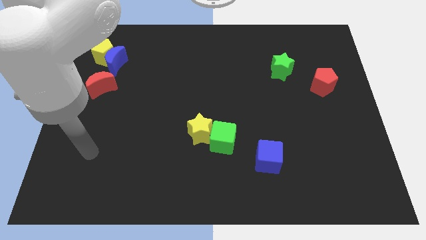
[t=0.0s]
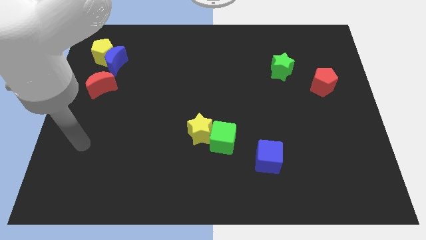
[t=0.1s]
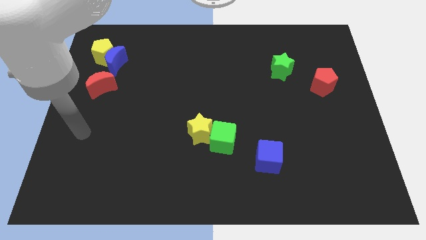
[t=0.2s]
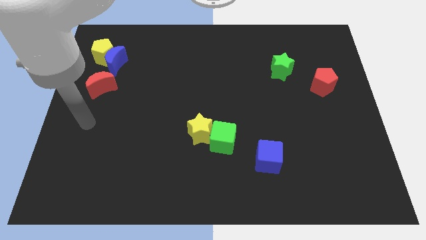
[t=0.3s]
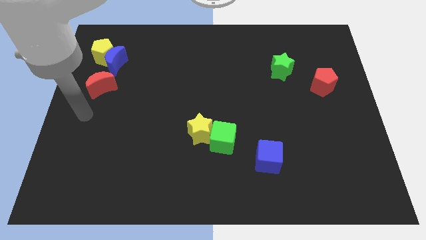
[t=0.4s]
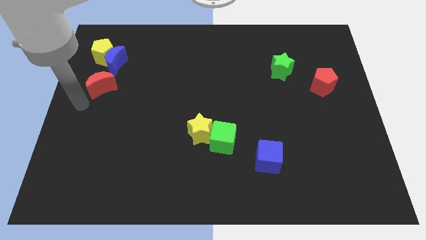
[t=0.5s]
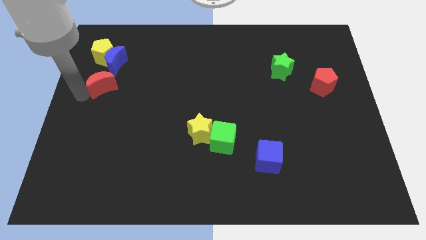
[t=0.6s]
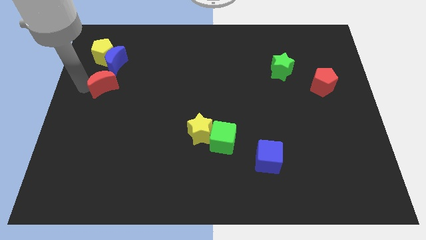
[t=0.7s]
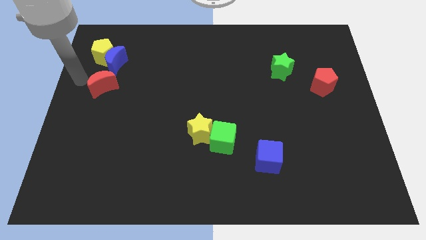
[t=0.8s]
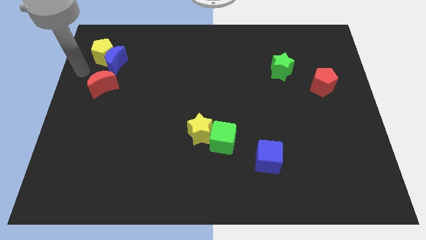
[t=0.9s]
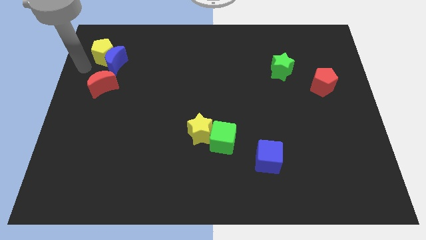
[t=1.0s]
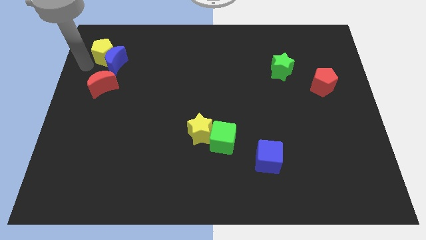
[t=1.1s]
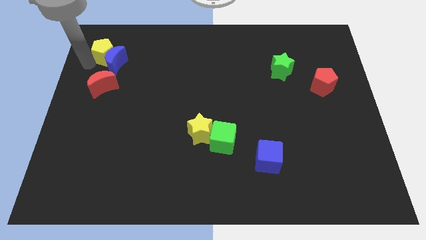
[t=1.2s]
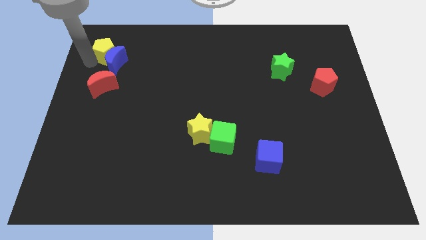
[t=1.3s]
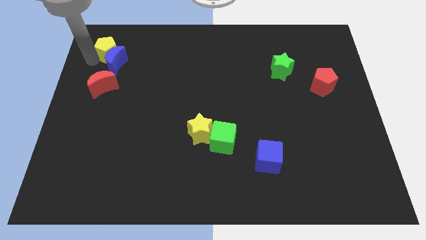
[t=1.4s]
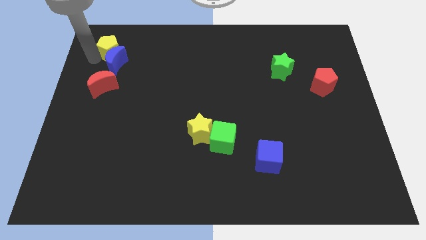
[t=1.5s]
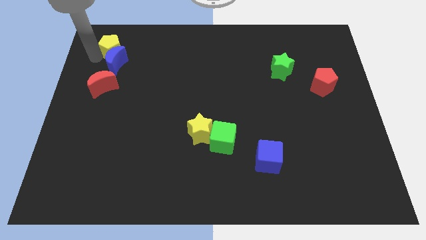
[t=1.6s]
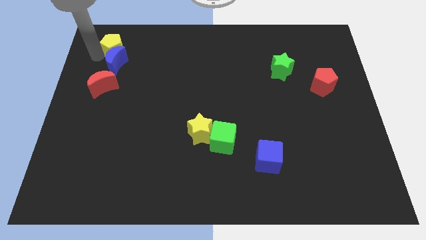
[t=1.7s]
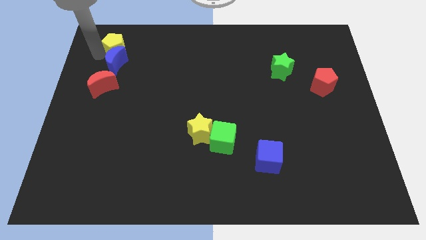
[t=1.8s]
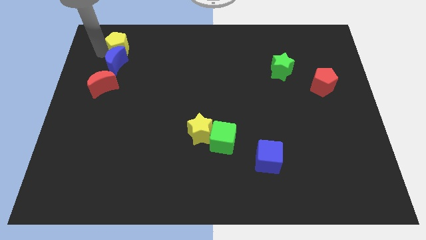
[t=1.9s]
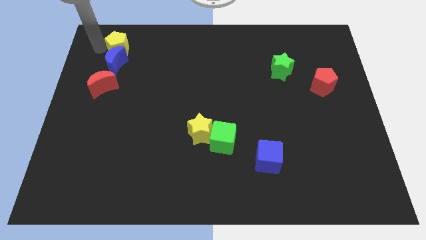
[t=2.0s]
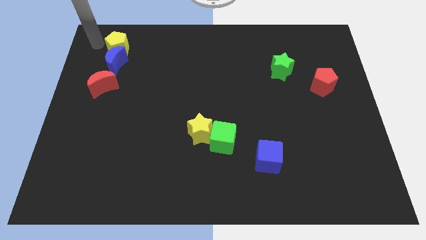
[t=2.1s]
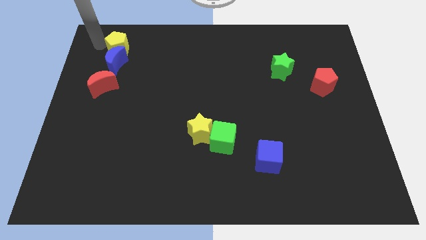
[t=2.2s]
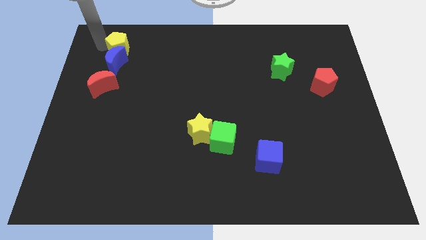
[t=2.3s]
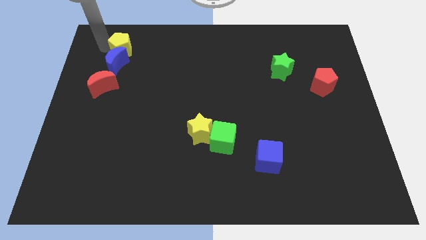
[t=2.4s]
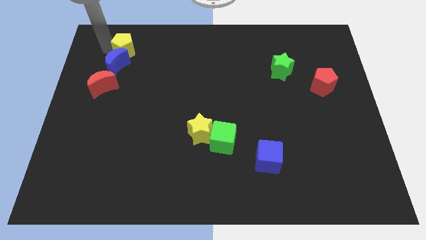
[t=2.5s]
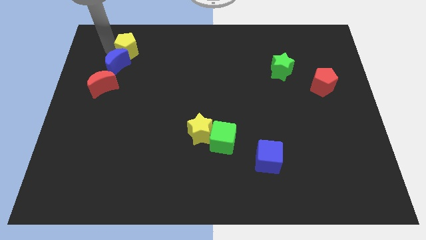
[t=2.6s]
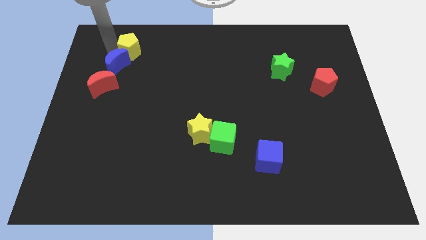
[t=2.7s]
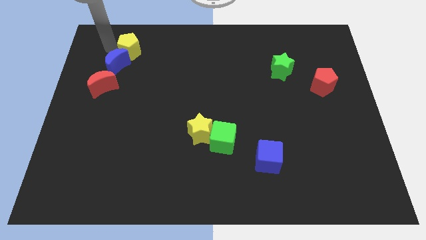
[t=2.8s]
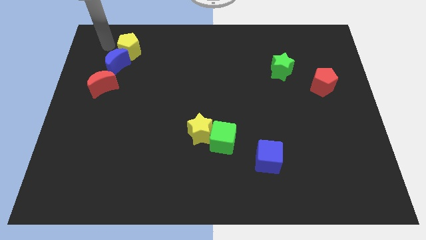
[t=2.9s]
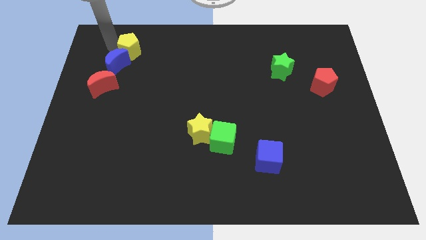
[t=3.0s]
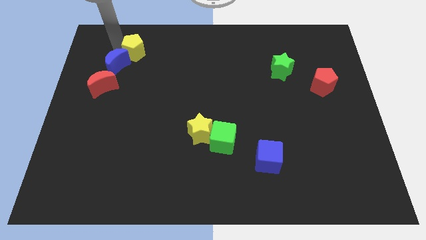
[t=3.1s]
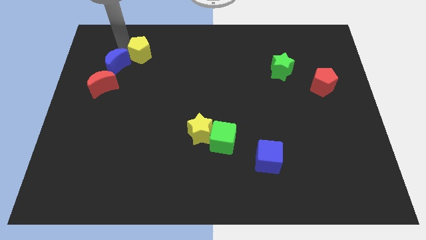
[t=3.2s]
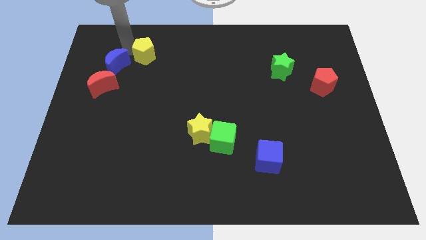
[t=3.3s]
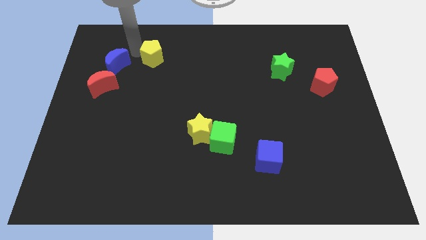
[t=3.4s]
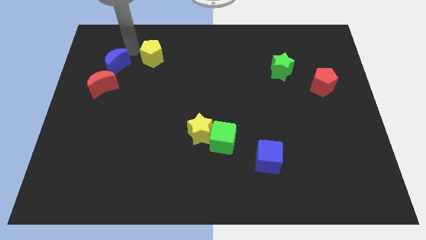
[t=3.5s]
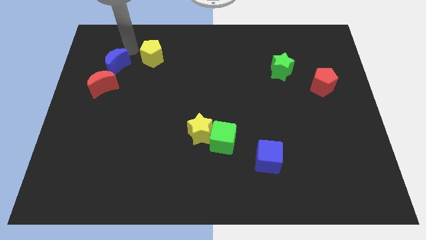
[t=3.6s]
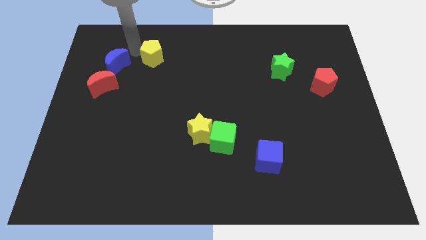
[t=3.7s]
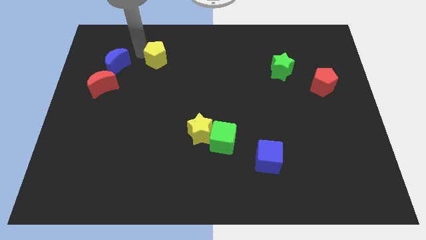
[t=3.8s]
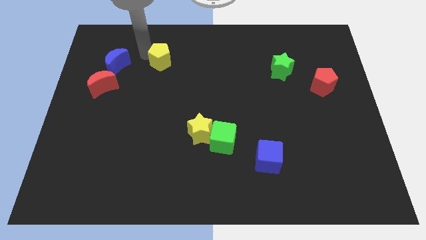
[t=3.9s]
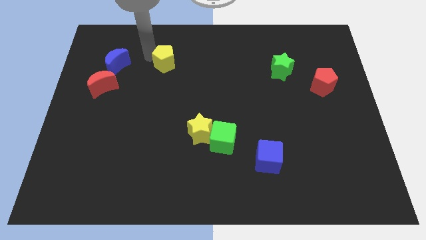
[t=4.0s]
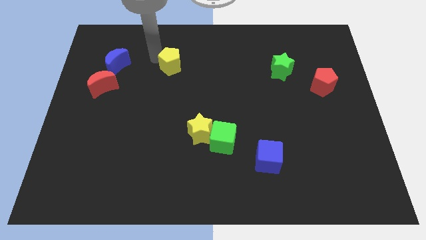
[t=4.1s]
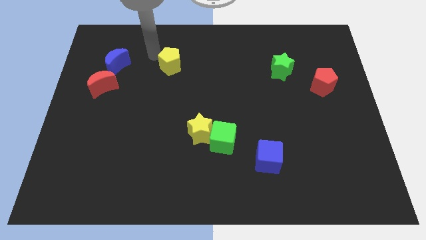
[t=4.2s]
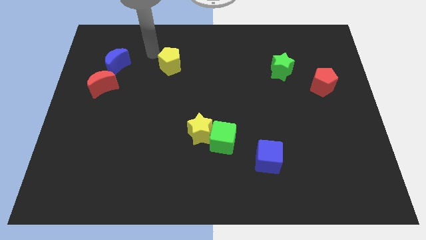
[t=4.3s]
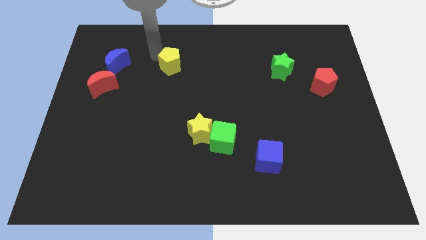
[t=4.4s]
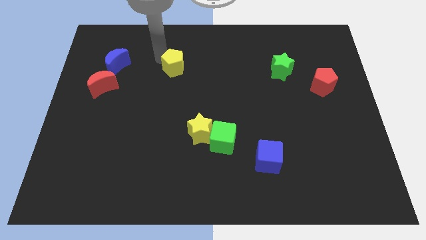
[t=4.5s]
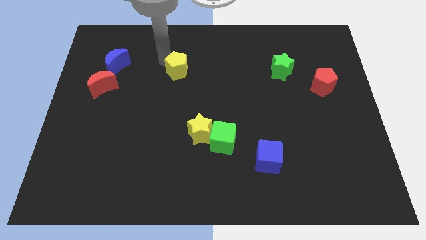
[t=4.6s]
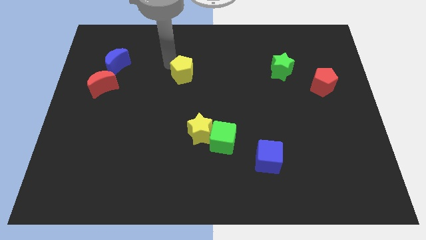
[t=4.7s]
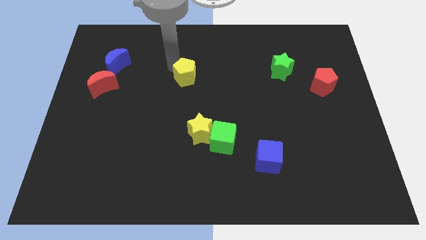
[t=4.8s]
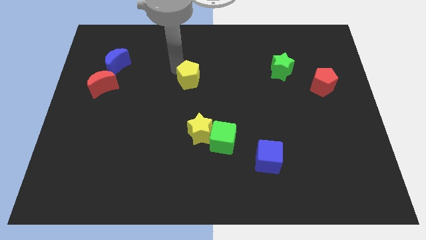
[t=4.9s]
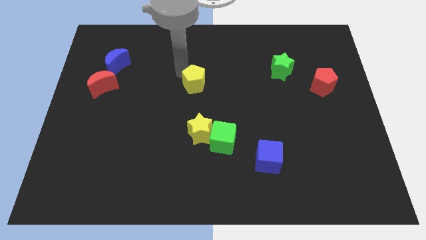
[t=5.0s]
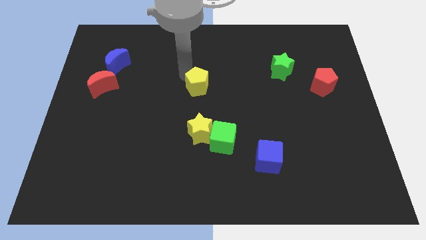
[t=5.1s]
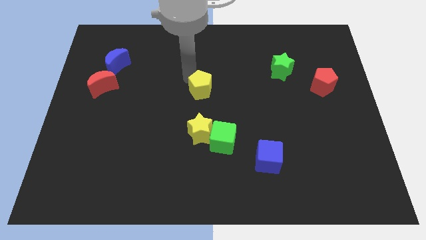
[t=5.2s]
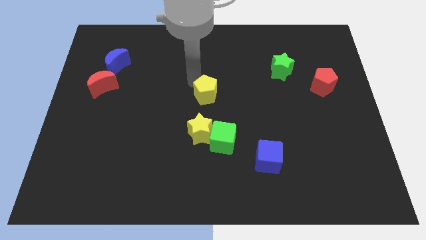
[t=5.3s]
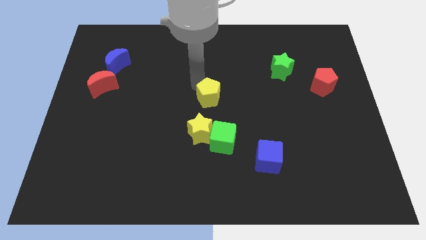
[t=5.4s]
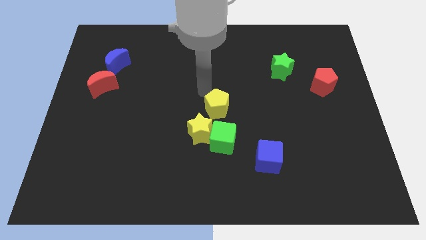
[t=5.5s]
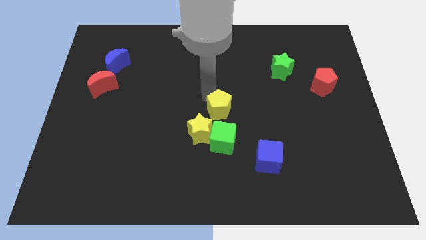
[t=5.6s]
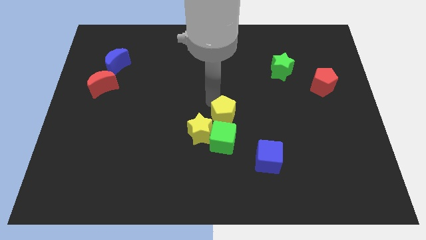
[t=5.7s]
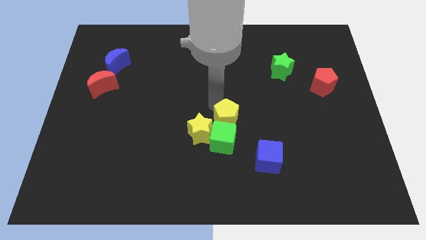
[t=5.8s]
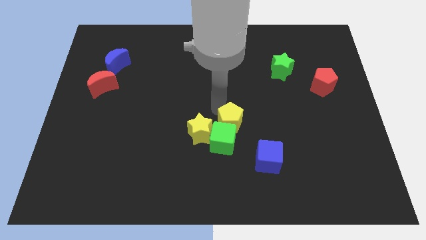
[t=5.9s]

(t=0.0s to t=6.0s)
move the yellow pentagon to the top left side of the blue cube

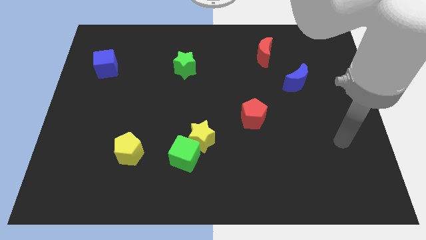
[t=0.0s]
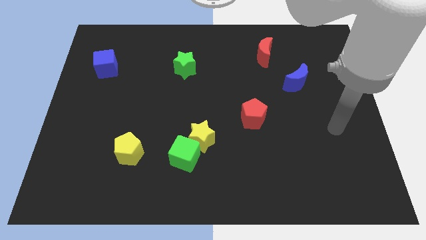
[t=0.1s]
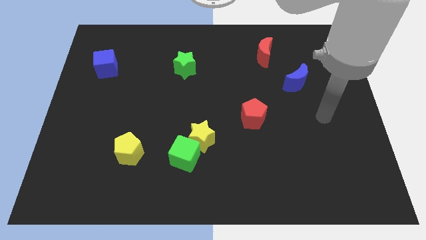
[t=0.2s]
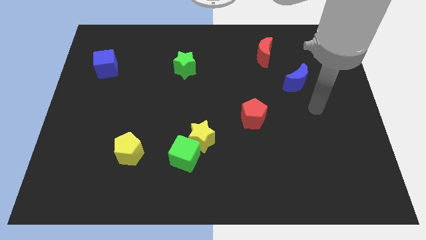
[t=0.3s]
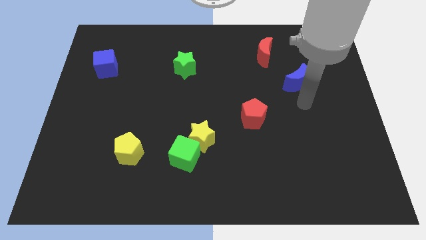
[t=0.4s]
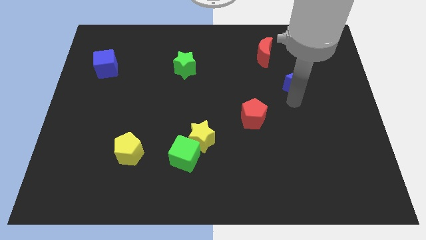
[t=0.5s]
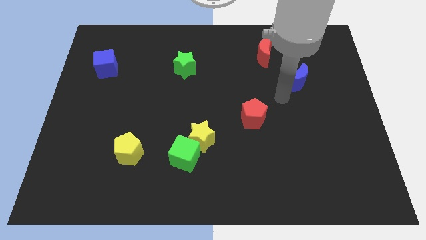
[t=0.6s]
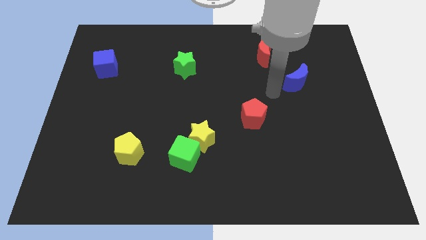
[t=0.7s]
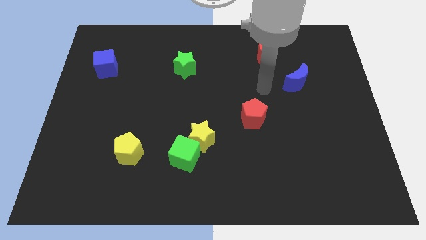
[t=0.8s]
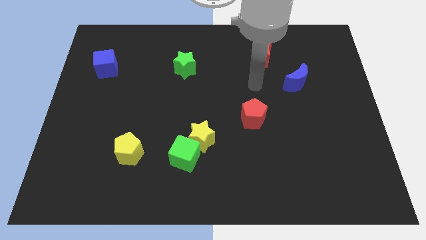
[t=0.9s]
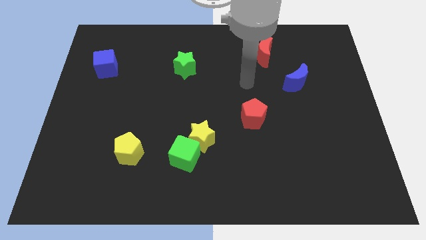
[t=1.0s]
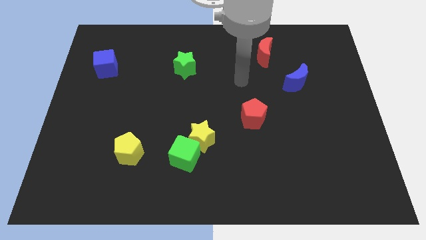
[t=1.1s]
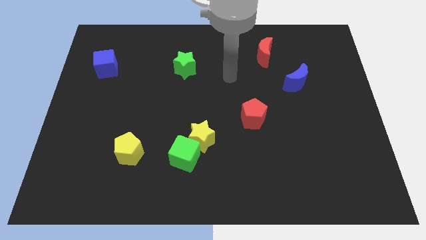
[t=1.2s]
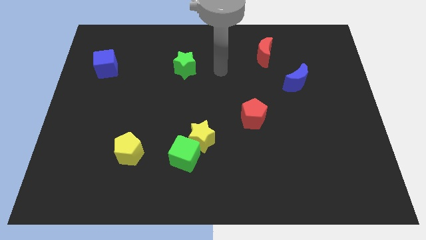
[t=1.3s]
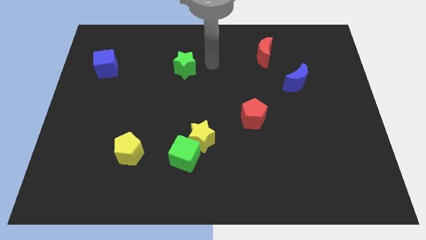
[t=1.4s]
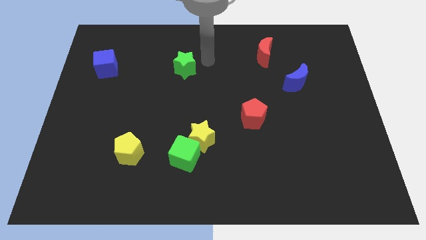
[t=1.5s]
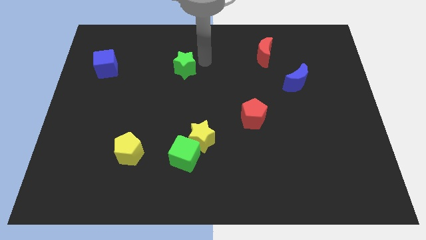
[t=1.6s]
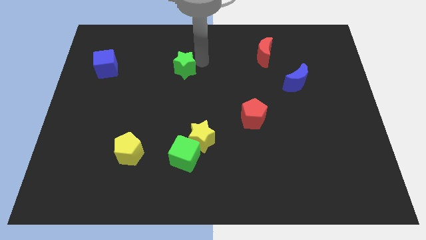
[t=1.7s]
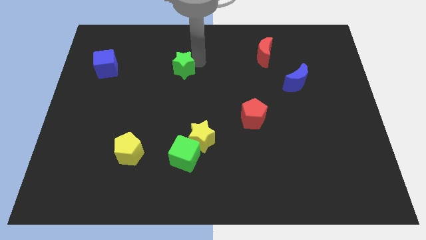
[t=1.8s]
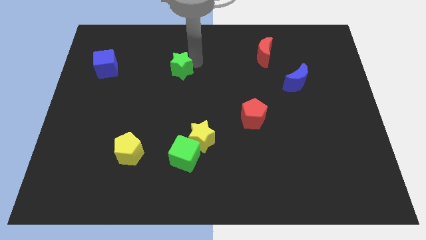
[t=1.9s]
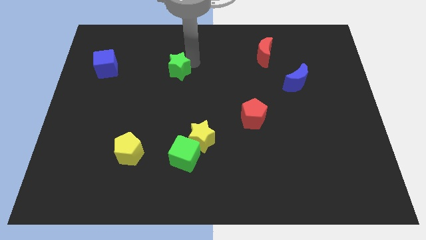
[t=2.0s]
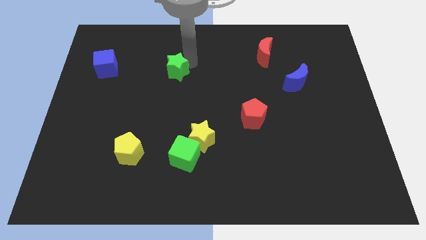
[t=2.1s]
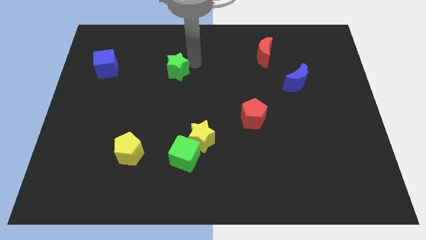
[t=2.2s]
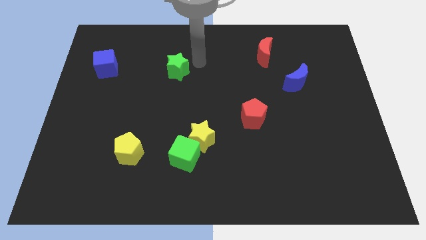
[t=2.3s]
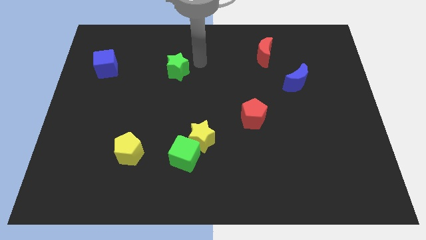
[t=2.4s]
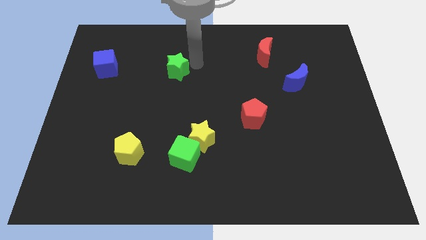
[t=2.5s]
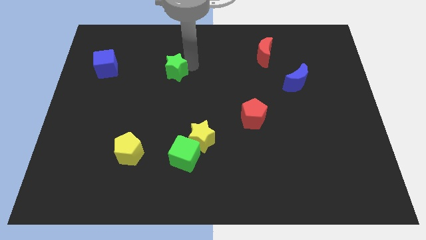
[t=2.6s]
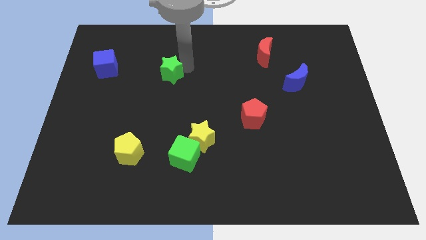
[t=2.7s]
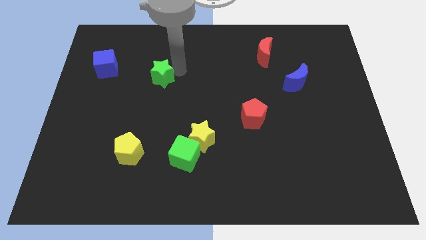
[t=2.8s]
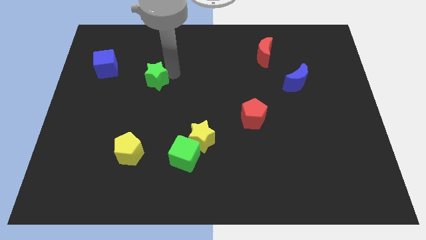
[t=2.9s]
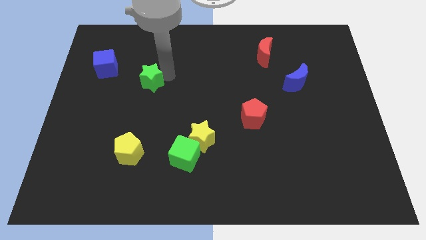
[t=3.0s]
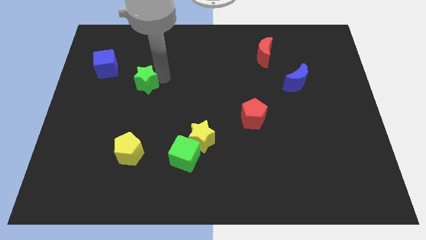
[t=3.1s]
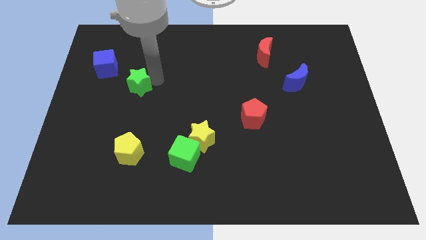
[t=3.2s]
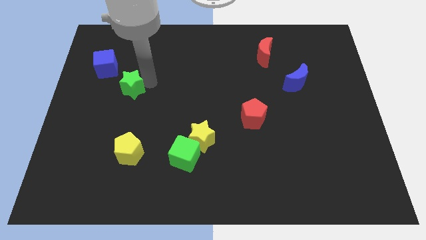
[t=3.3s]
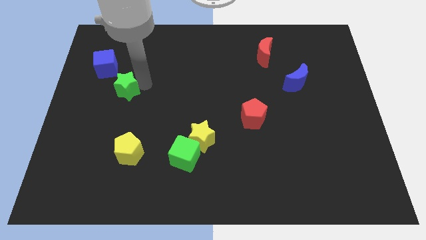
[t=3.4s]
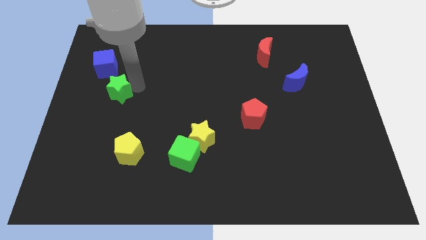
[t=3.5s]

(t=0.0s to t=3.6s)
slide the green star to the bottom side of the blue cube
